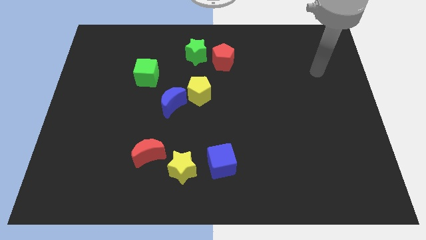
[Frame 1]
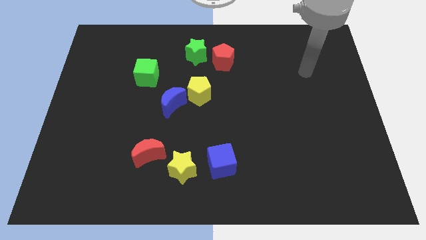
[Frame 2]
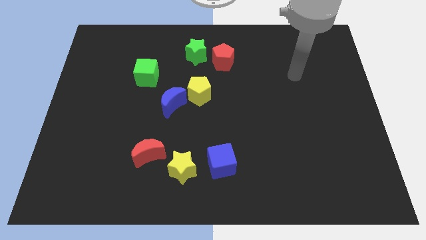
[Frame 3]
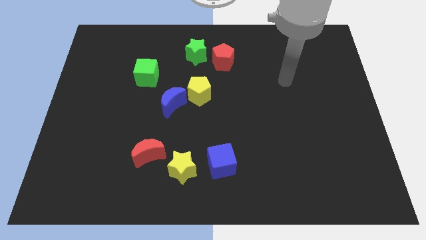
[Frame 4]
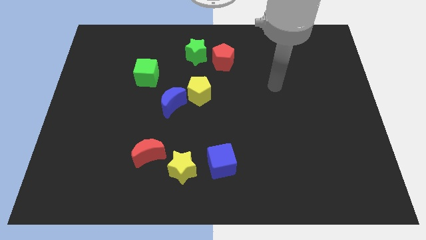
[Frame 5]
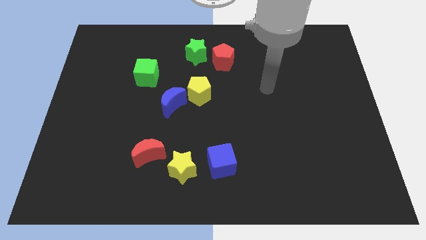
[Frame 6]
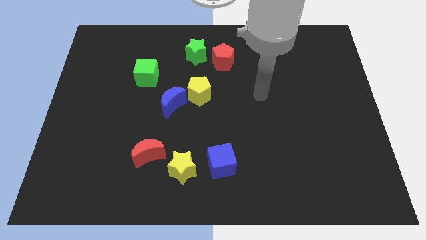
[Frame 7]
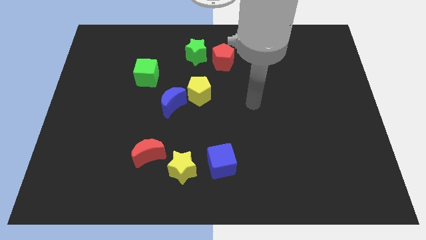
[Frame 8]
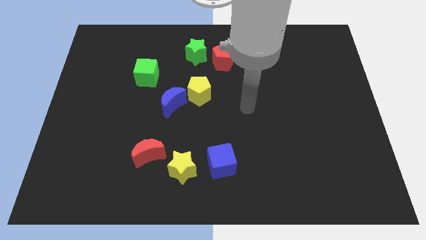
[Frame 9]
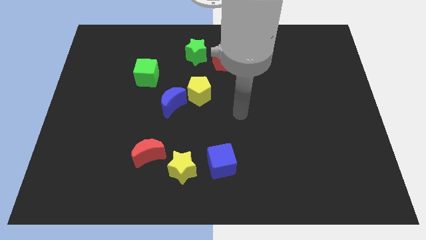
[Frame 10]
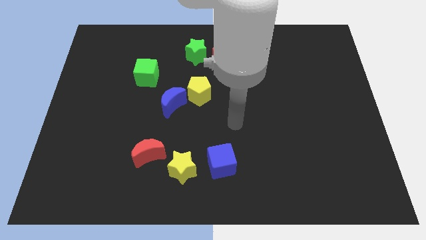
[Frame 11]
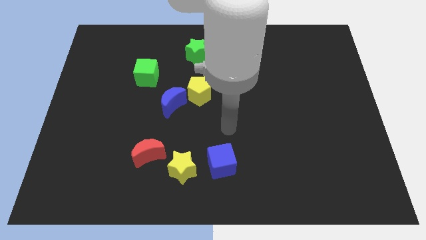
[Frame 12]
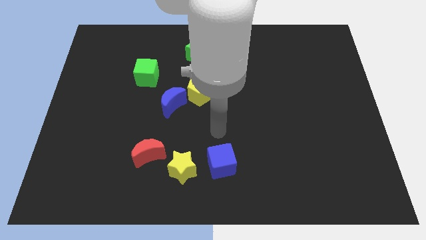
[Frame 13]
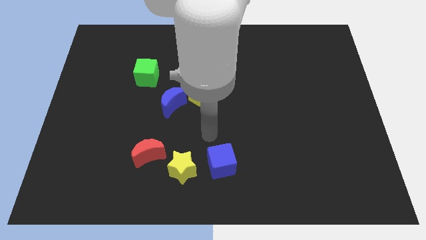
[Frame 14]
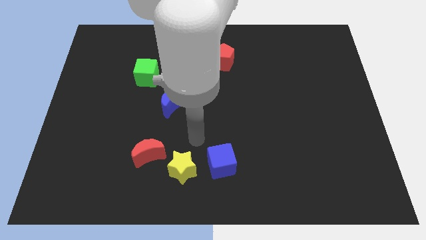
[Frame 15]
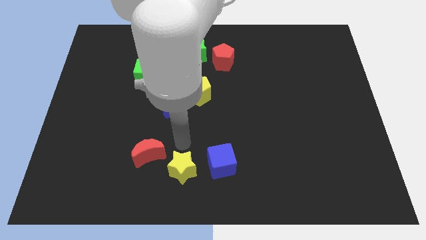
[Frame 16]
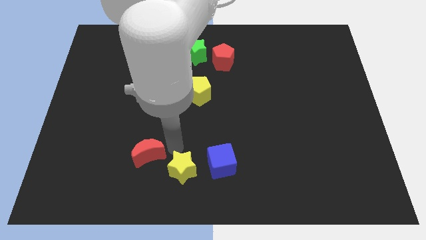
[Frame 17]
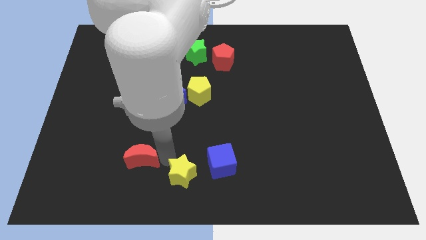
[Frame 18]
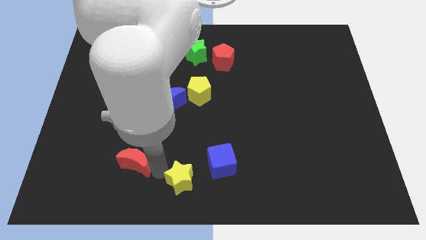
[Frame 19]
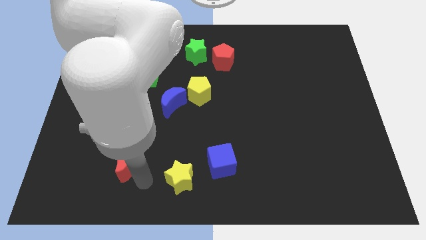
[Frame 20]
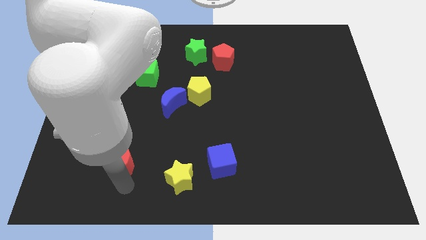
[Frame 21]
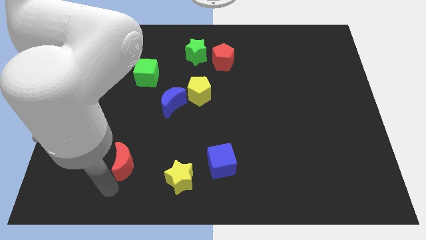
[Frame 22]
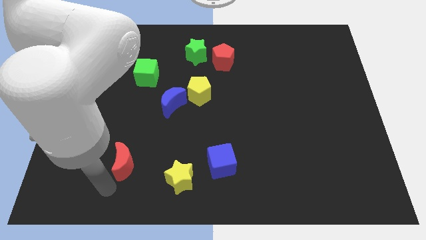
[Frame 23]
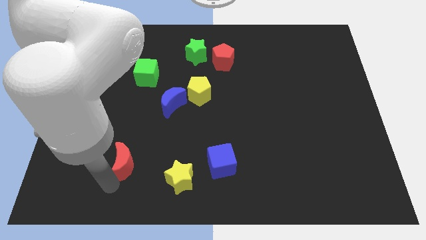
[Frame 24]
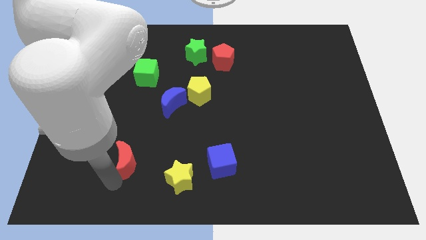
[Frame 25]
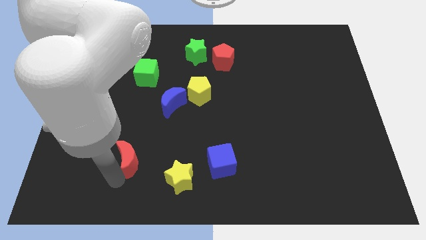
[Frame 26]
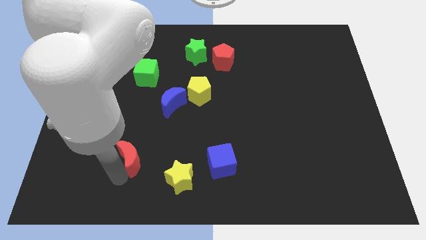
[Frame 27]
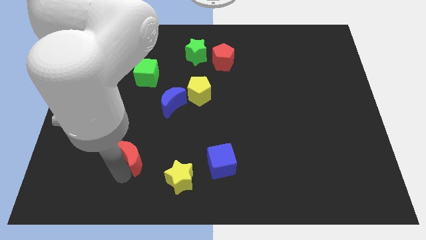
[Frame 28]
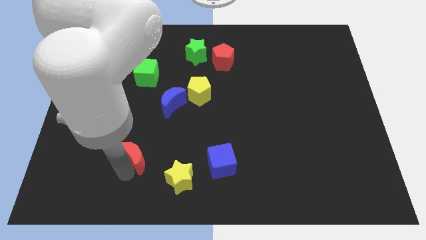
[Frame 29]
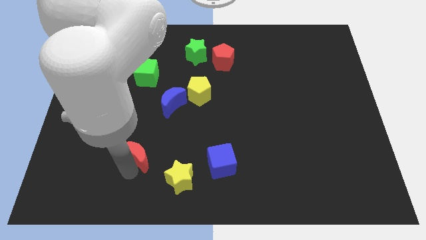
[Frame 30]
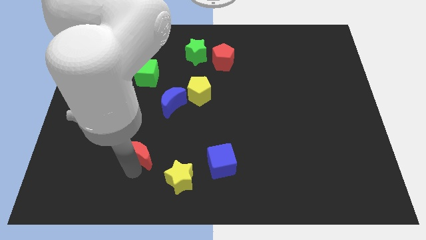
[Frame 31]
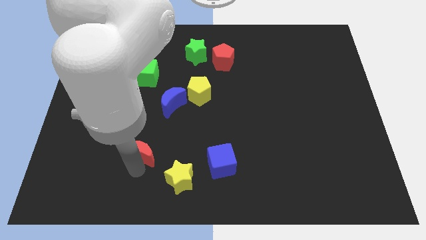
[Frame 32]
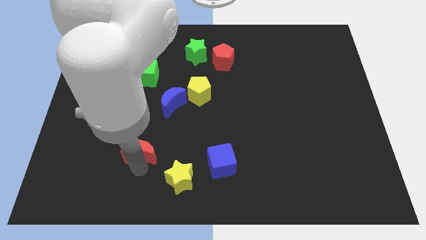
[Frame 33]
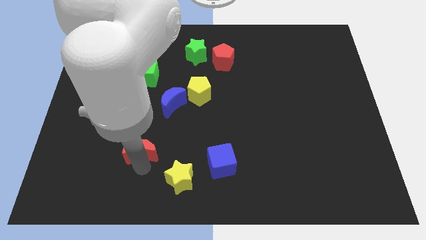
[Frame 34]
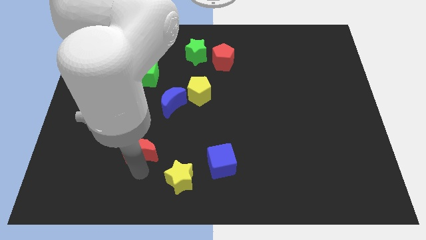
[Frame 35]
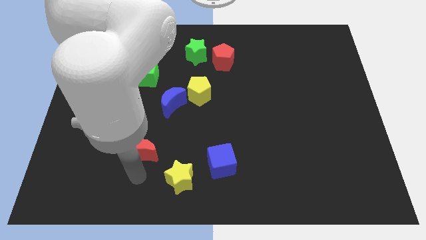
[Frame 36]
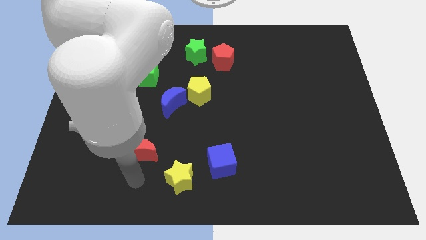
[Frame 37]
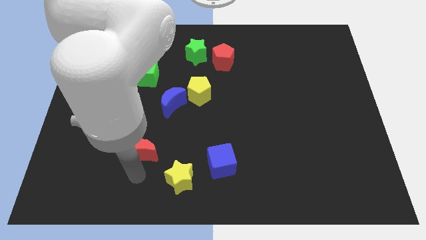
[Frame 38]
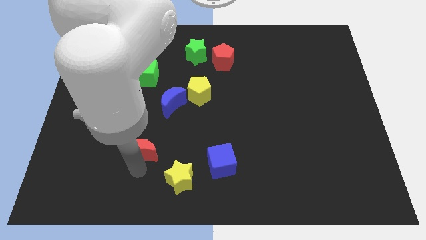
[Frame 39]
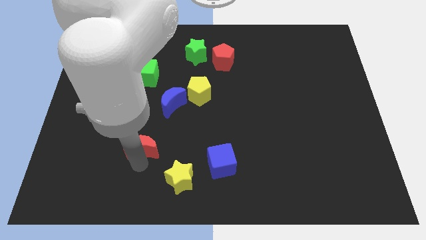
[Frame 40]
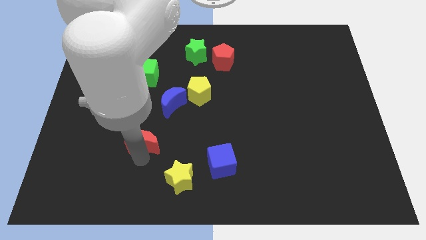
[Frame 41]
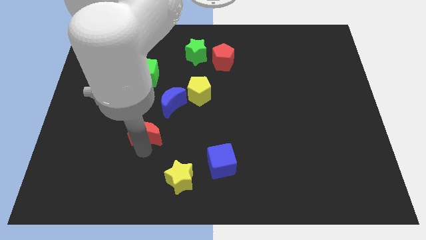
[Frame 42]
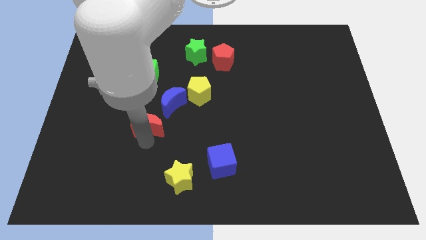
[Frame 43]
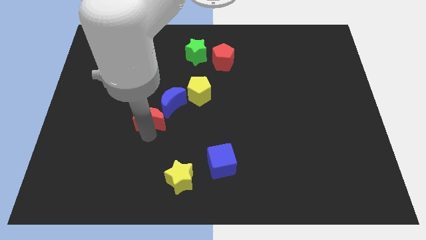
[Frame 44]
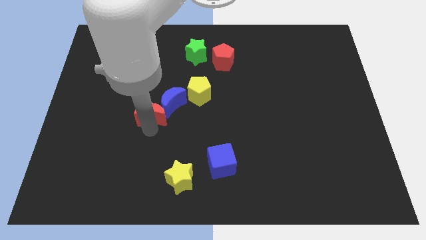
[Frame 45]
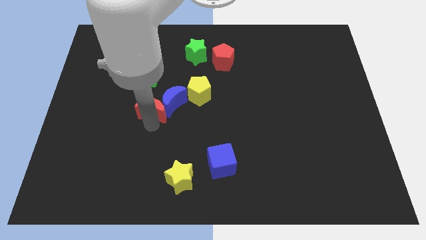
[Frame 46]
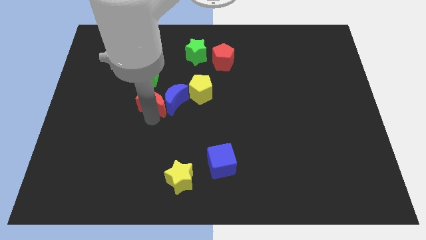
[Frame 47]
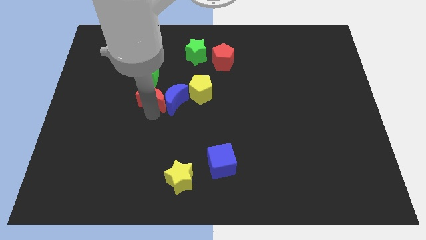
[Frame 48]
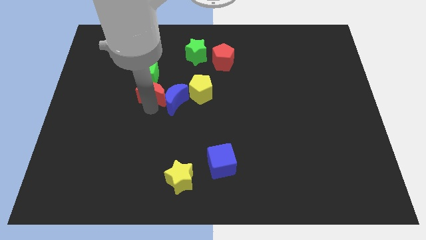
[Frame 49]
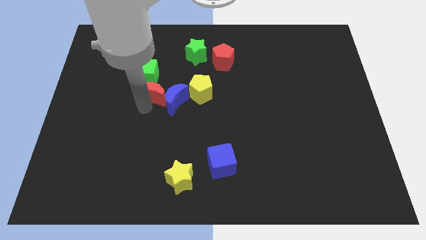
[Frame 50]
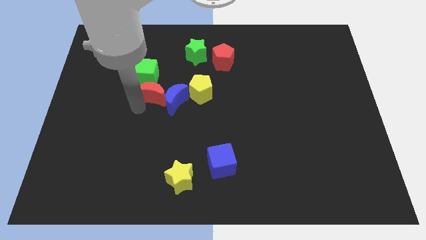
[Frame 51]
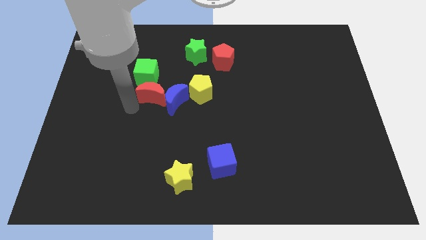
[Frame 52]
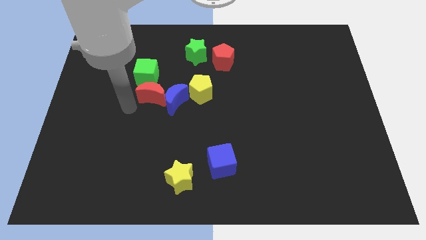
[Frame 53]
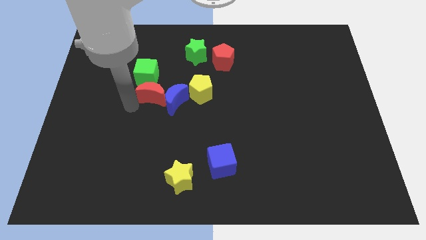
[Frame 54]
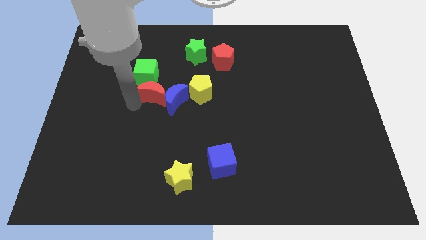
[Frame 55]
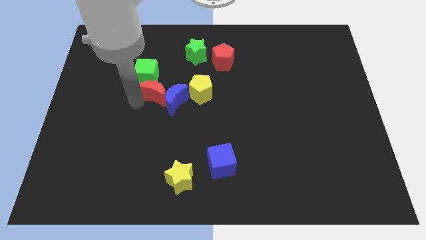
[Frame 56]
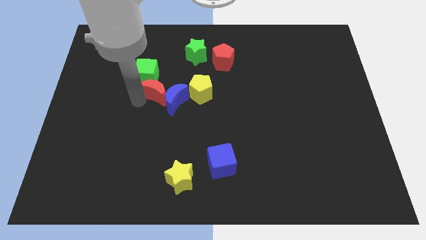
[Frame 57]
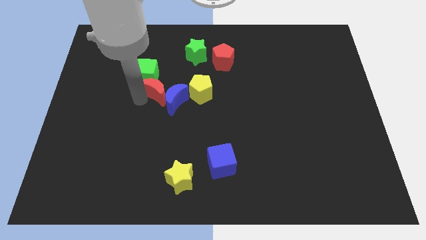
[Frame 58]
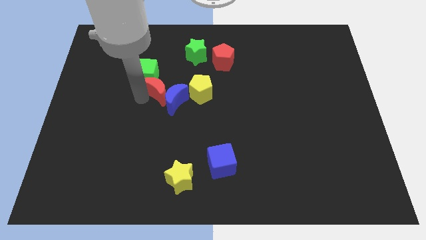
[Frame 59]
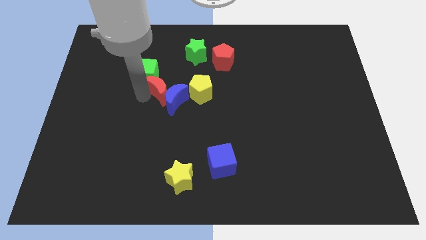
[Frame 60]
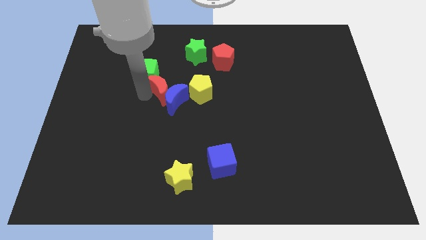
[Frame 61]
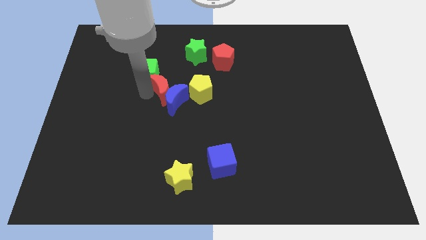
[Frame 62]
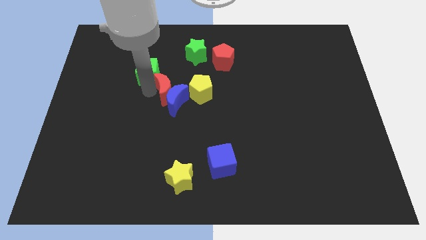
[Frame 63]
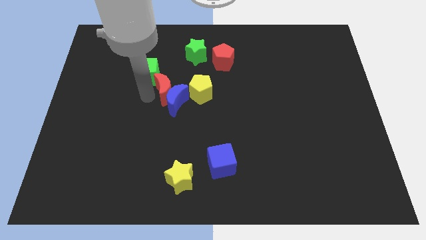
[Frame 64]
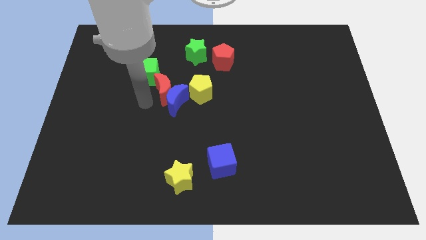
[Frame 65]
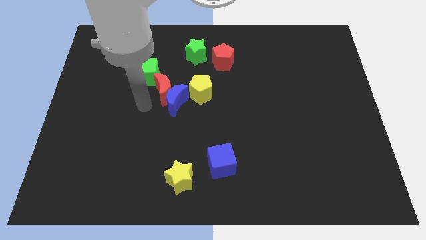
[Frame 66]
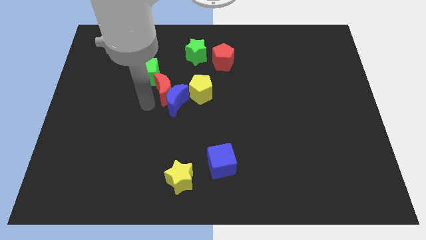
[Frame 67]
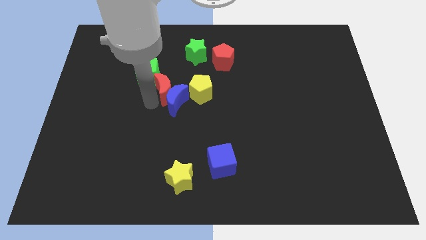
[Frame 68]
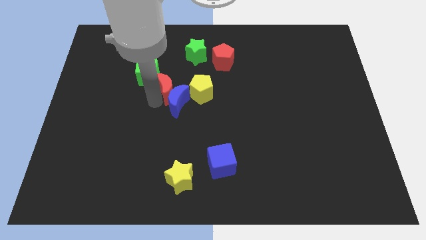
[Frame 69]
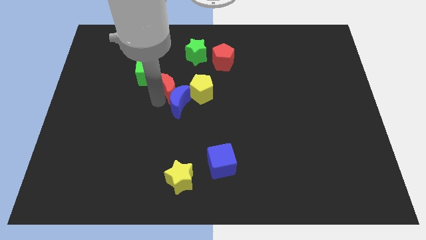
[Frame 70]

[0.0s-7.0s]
put the red moon to the right side of the green cube
